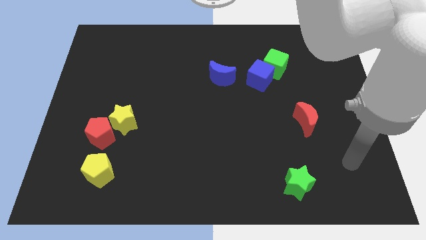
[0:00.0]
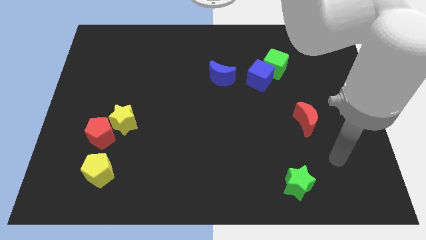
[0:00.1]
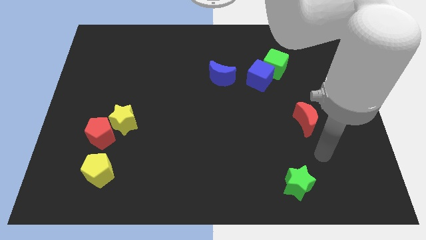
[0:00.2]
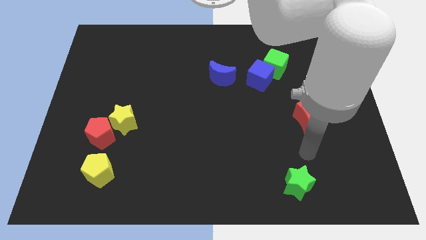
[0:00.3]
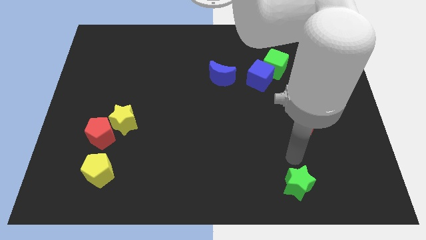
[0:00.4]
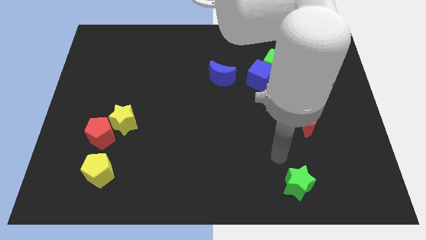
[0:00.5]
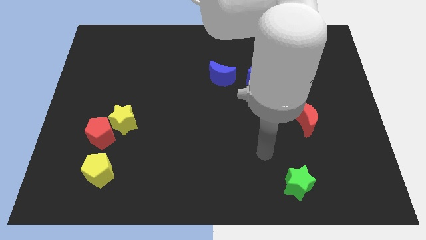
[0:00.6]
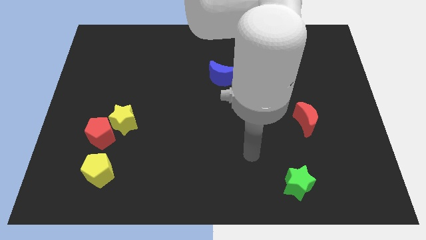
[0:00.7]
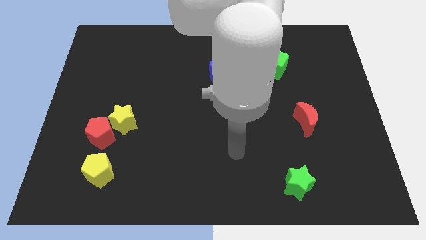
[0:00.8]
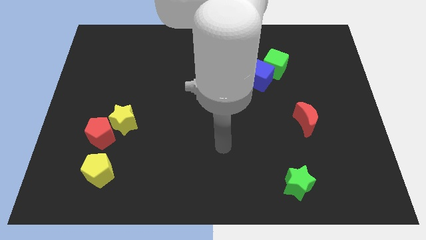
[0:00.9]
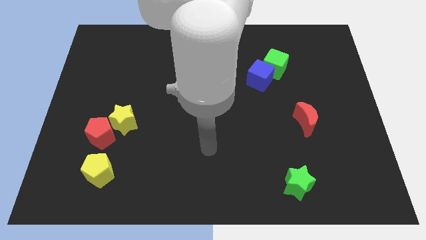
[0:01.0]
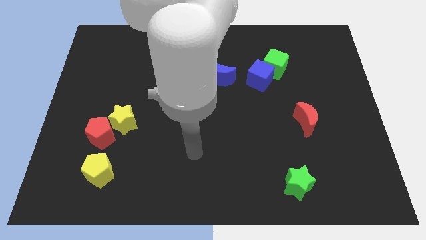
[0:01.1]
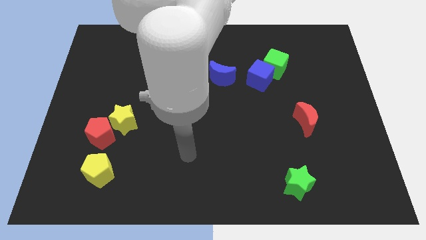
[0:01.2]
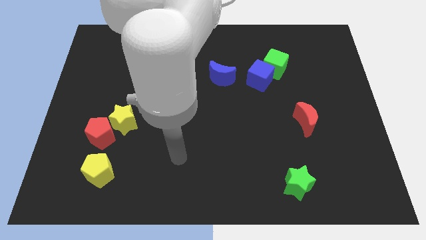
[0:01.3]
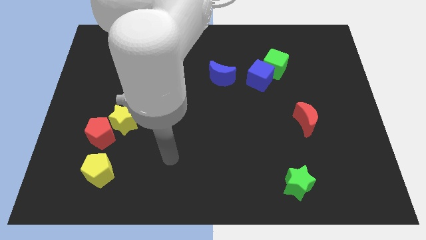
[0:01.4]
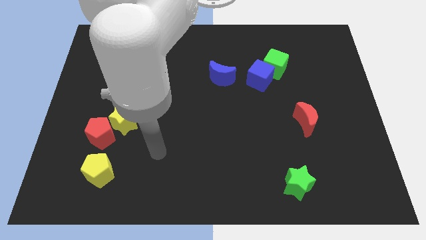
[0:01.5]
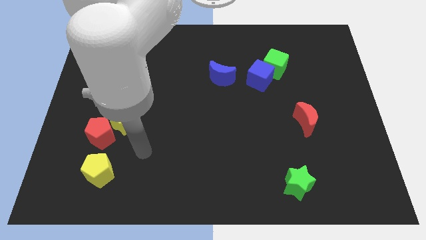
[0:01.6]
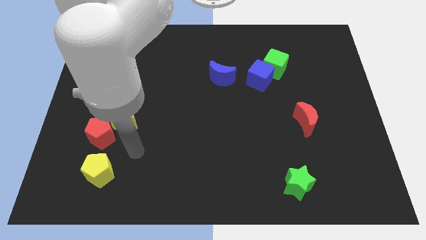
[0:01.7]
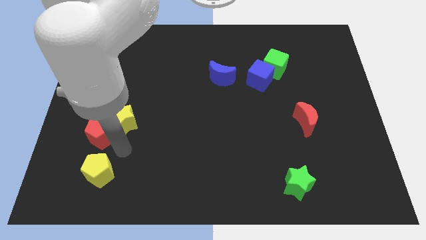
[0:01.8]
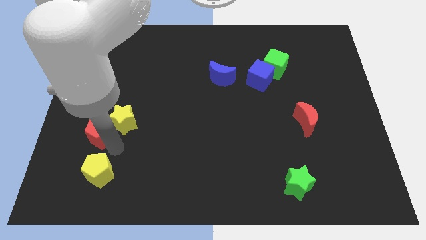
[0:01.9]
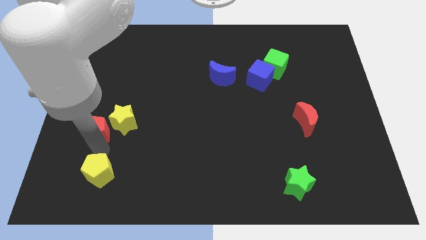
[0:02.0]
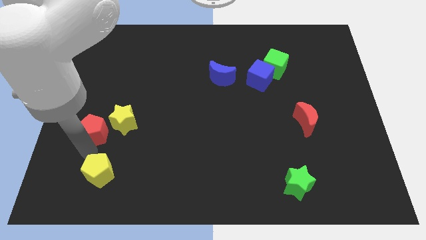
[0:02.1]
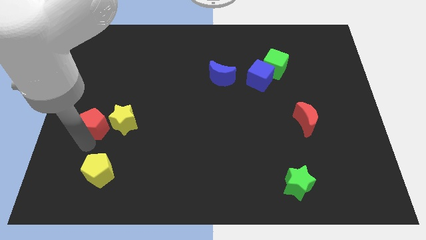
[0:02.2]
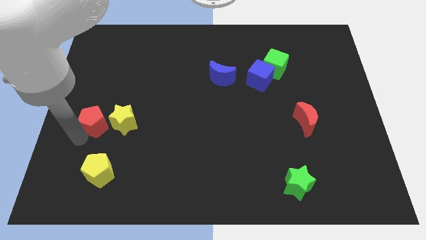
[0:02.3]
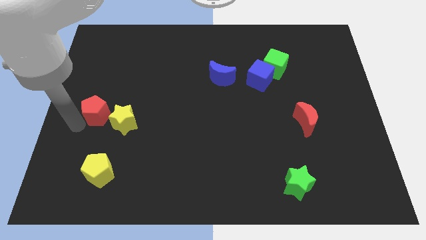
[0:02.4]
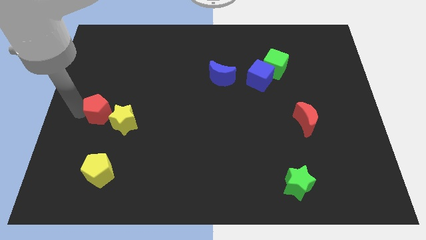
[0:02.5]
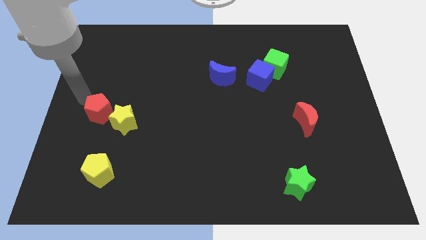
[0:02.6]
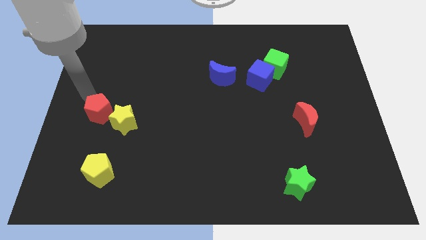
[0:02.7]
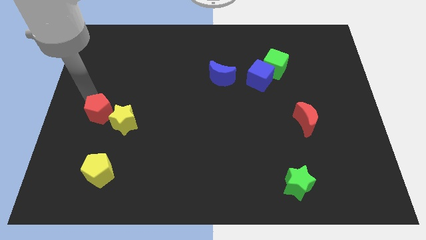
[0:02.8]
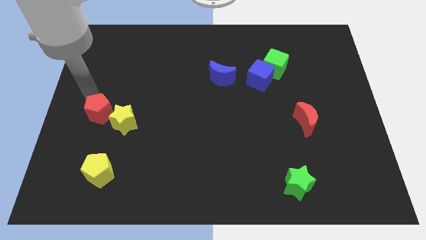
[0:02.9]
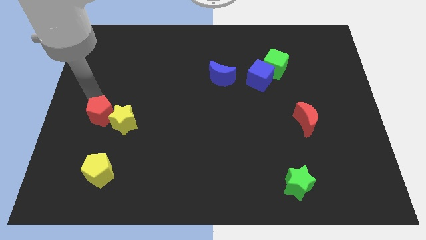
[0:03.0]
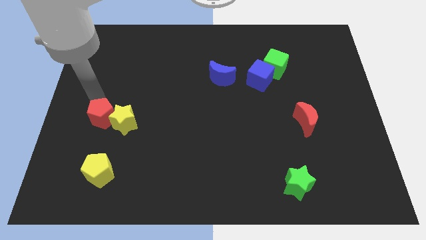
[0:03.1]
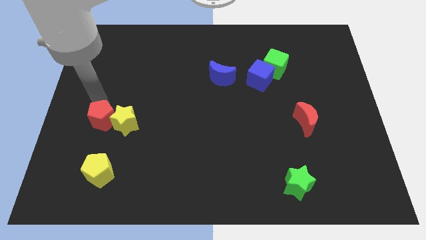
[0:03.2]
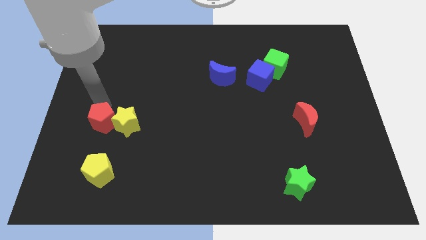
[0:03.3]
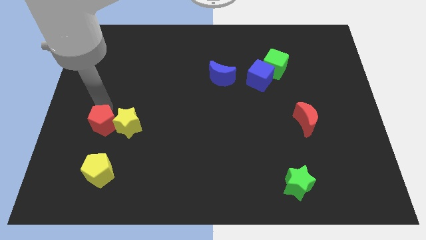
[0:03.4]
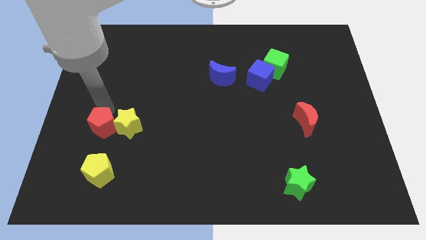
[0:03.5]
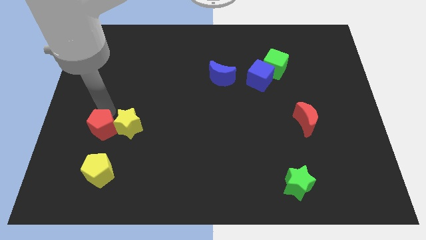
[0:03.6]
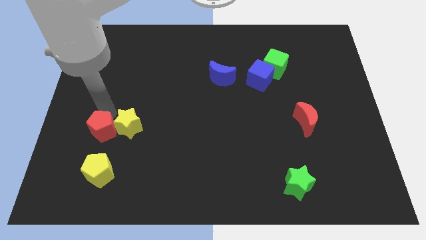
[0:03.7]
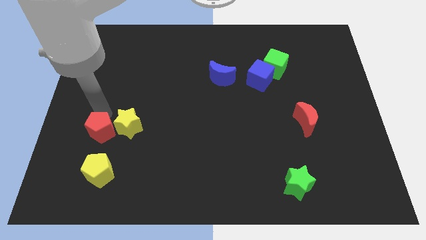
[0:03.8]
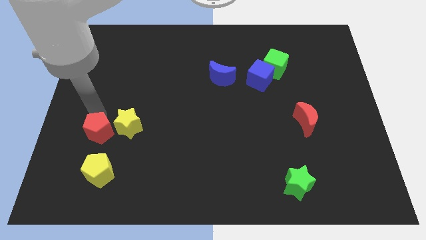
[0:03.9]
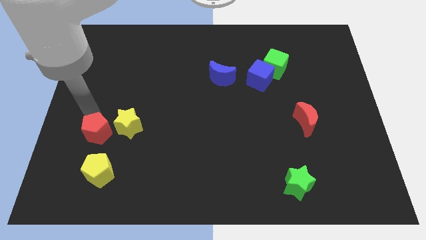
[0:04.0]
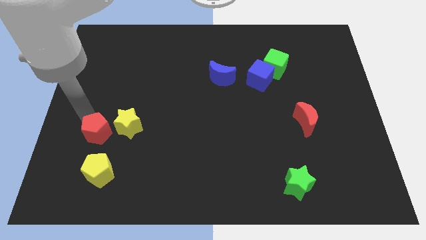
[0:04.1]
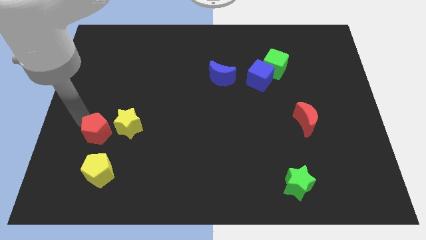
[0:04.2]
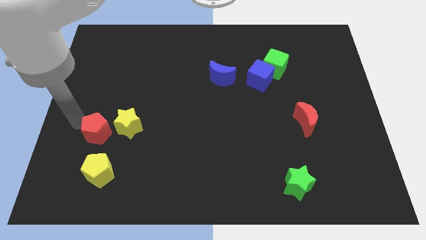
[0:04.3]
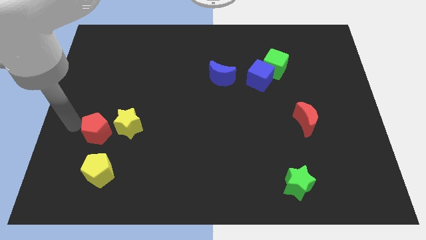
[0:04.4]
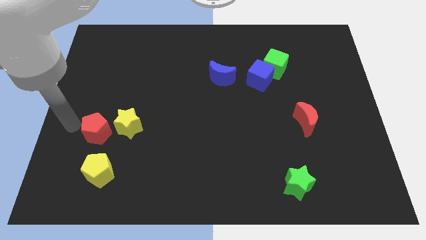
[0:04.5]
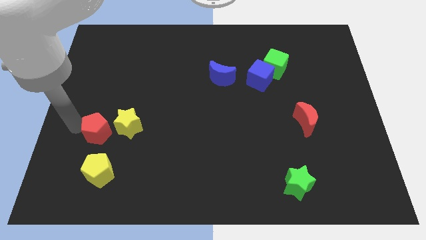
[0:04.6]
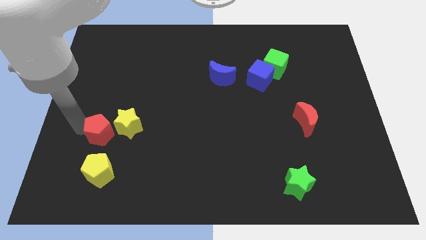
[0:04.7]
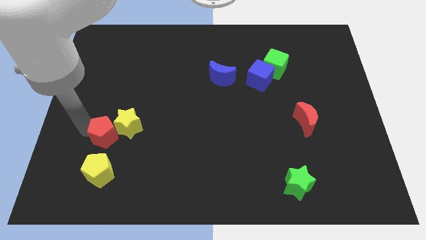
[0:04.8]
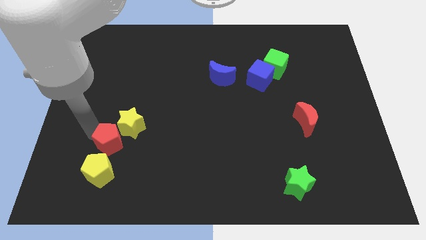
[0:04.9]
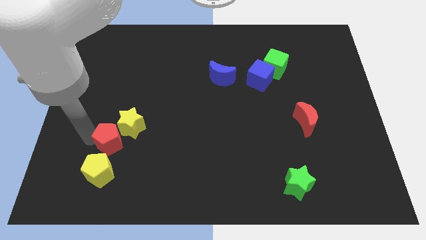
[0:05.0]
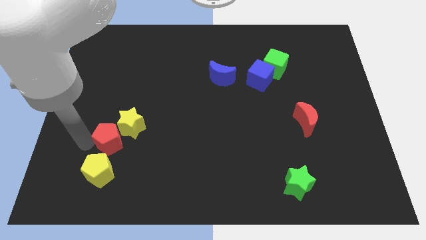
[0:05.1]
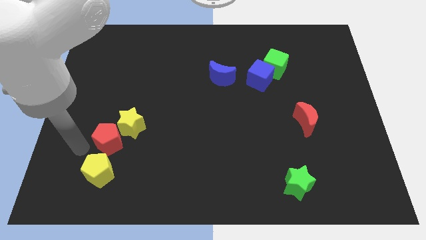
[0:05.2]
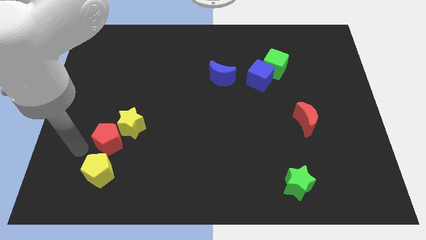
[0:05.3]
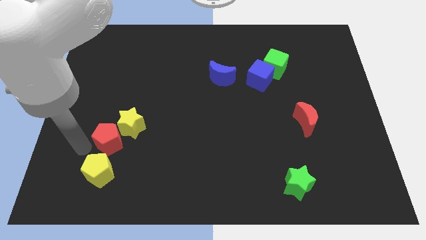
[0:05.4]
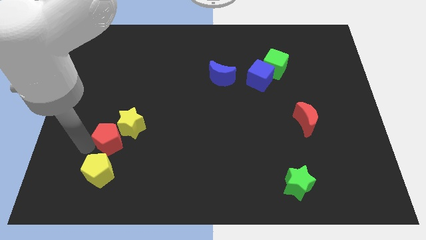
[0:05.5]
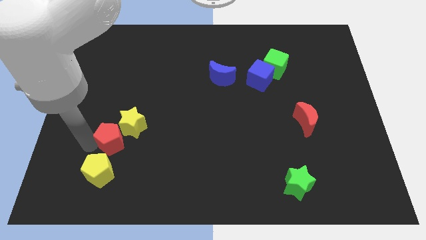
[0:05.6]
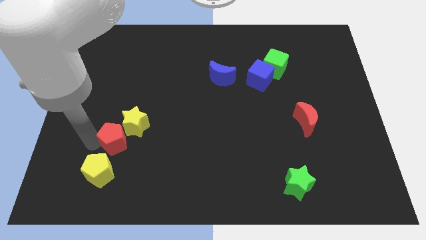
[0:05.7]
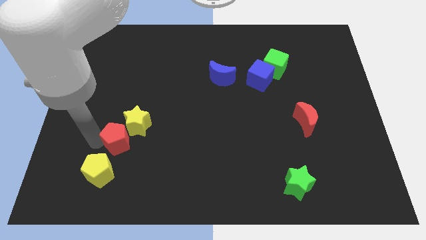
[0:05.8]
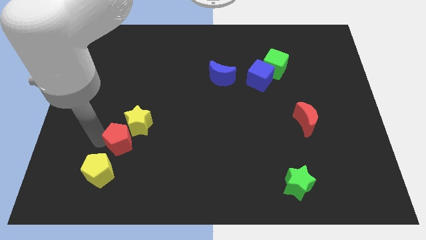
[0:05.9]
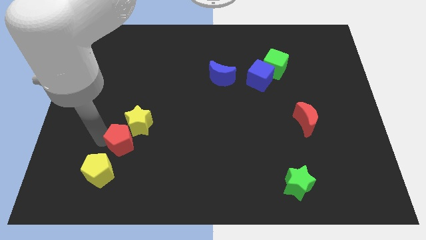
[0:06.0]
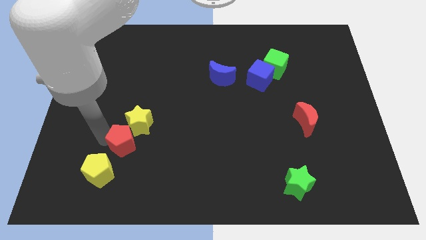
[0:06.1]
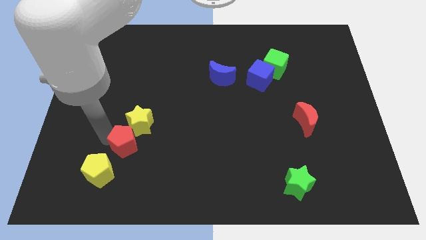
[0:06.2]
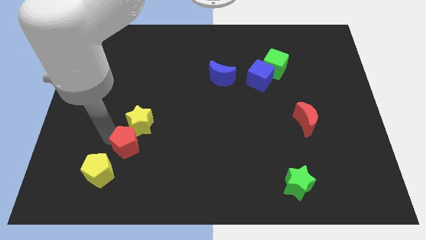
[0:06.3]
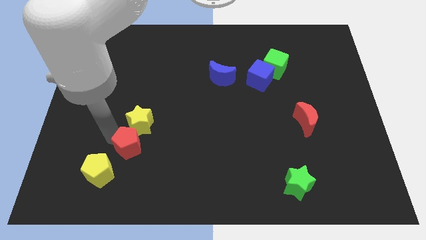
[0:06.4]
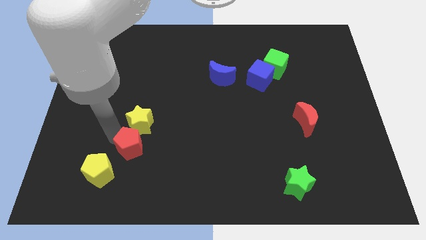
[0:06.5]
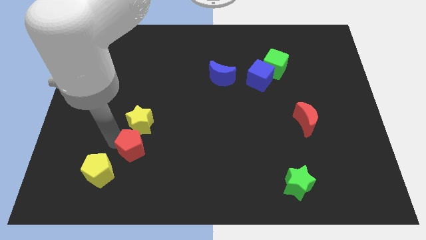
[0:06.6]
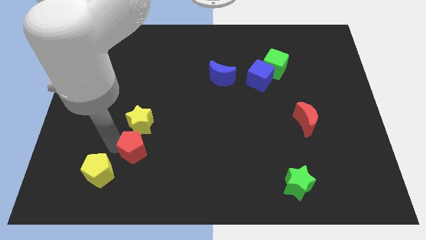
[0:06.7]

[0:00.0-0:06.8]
slide the red pentagon right slightly

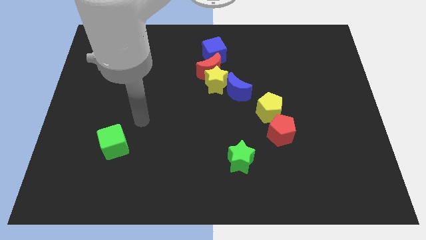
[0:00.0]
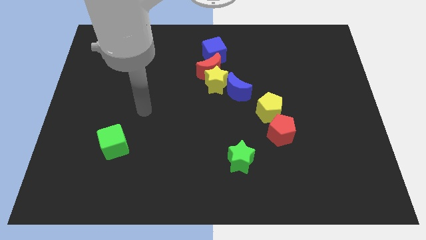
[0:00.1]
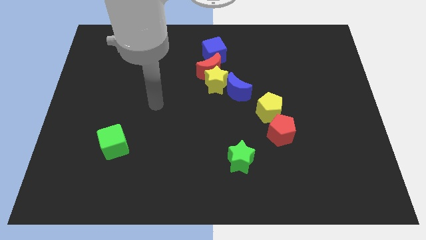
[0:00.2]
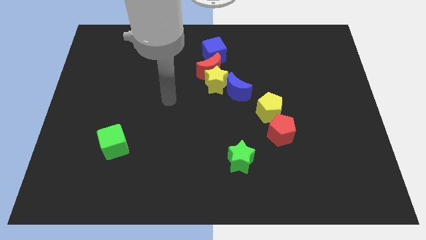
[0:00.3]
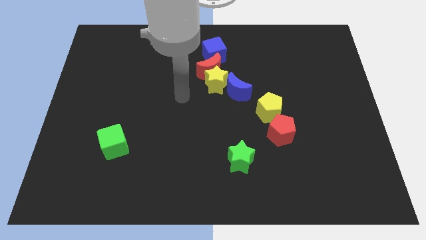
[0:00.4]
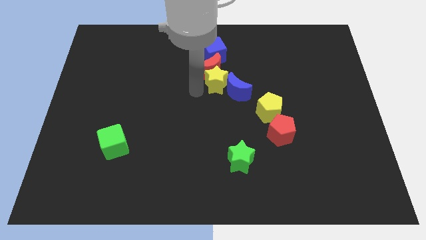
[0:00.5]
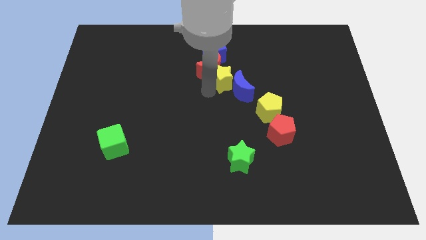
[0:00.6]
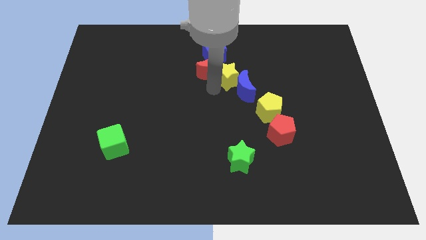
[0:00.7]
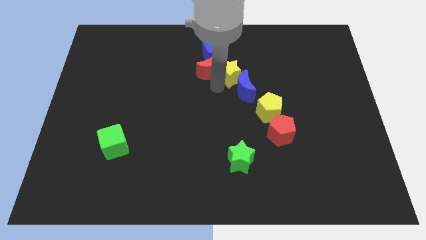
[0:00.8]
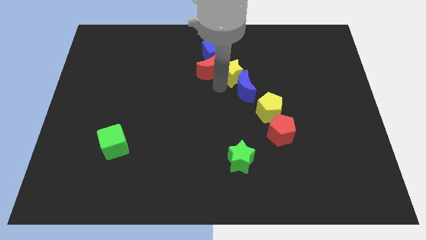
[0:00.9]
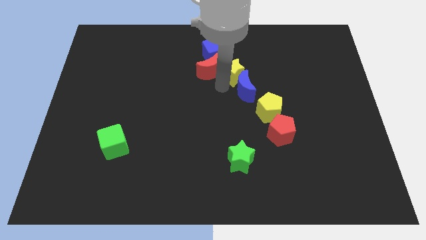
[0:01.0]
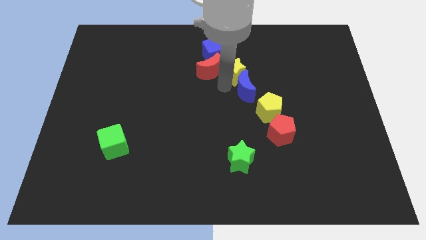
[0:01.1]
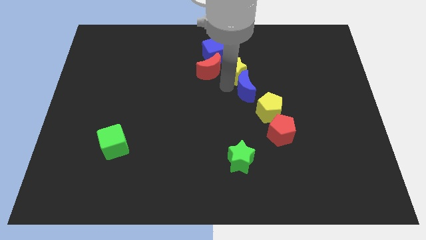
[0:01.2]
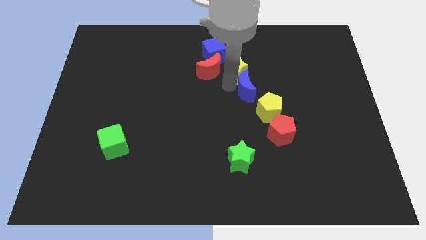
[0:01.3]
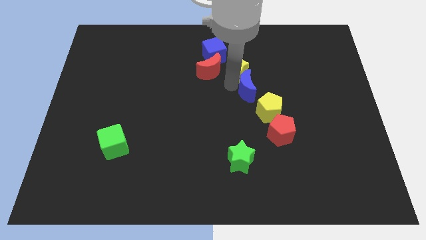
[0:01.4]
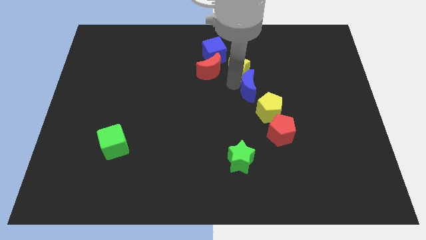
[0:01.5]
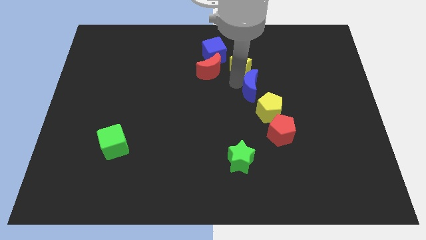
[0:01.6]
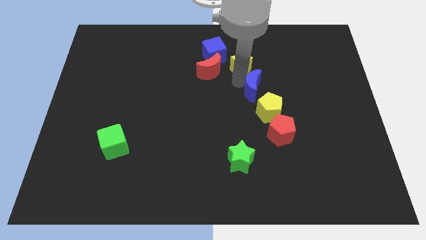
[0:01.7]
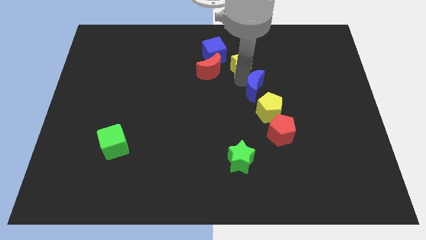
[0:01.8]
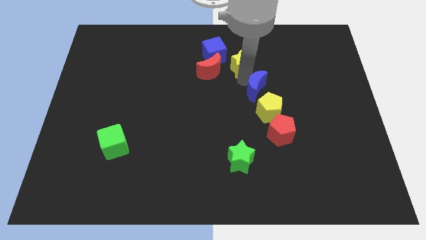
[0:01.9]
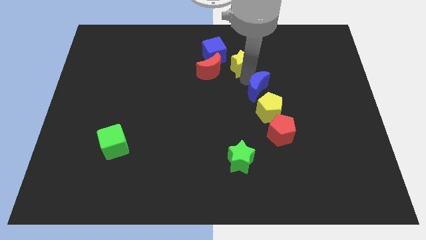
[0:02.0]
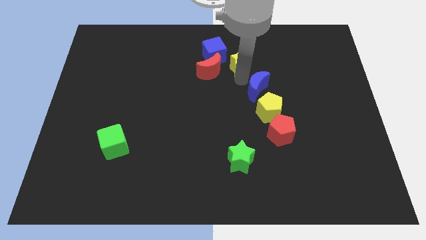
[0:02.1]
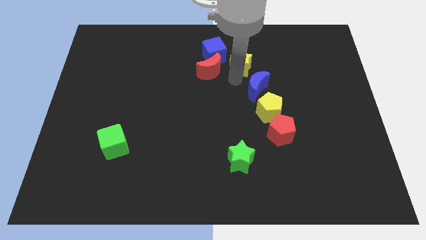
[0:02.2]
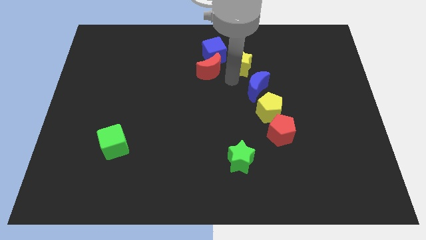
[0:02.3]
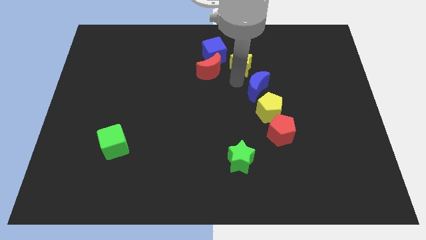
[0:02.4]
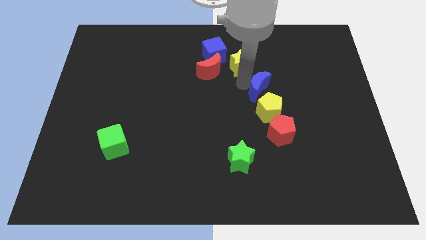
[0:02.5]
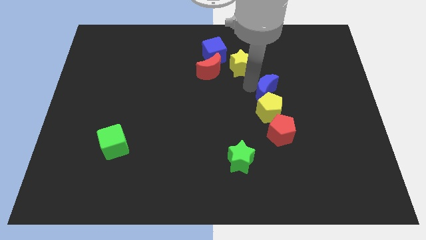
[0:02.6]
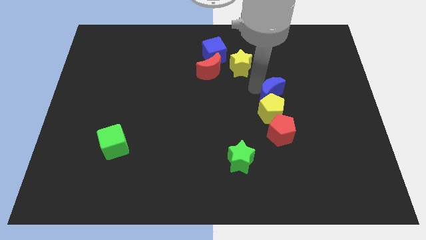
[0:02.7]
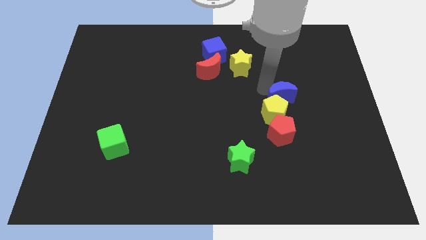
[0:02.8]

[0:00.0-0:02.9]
slightly move the blue moon diagonally down and right
